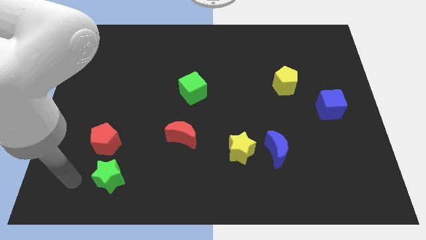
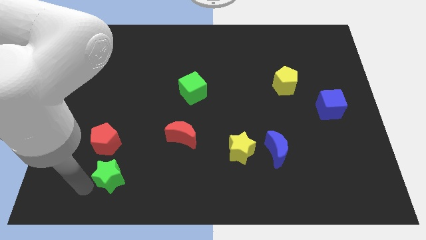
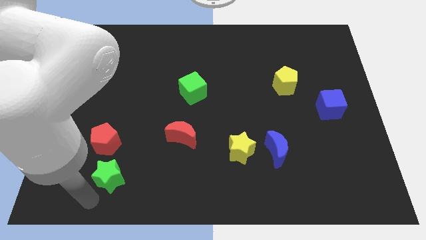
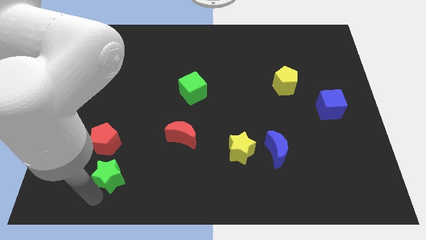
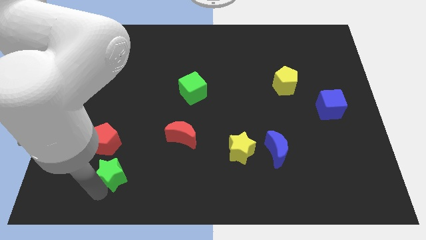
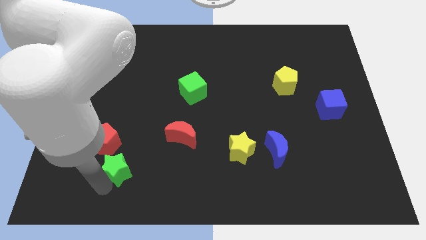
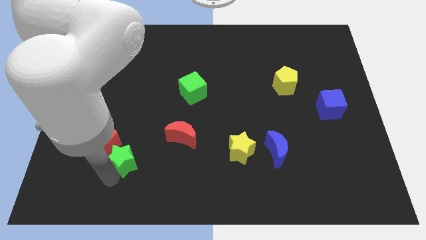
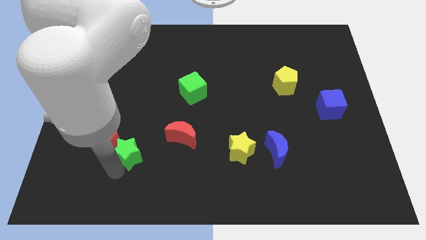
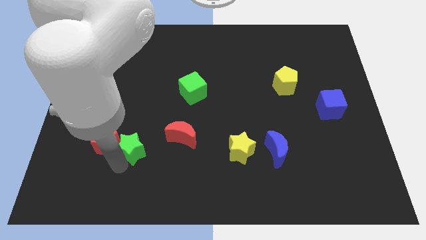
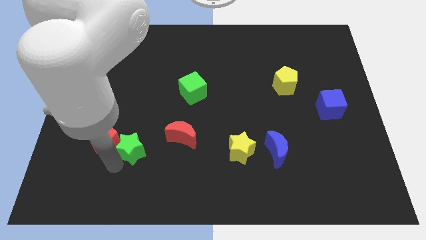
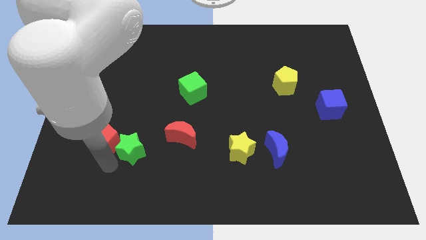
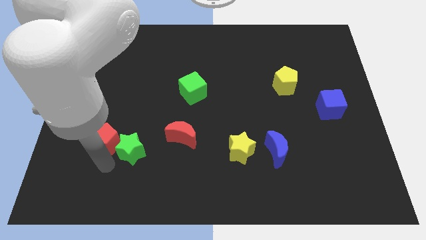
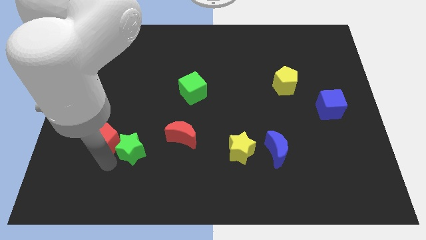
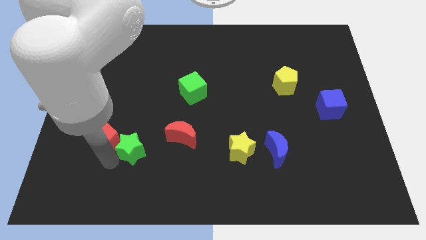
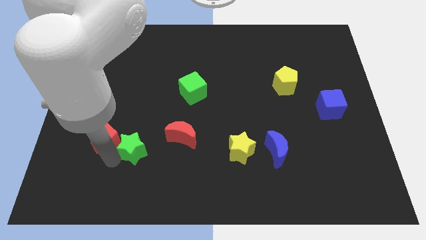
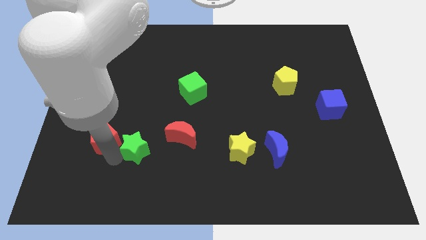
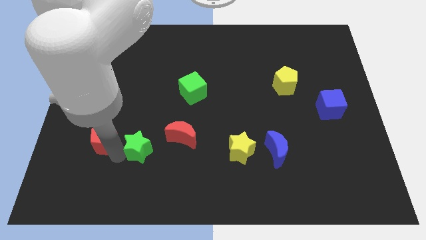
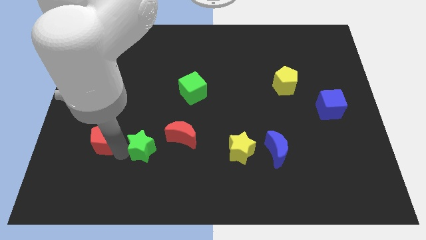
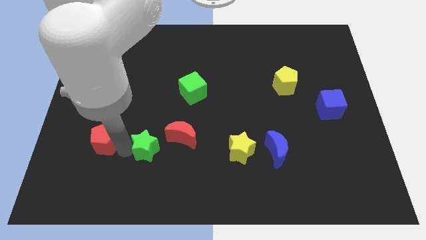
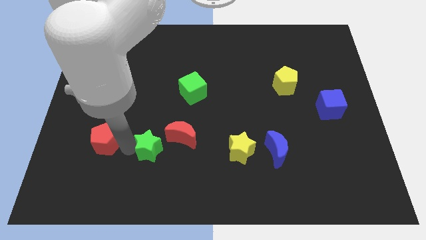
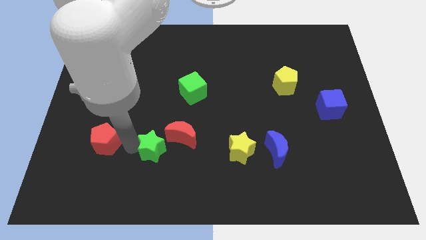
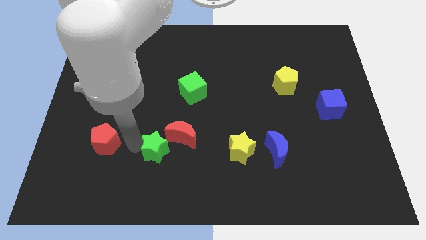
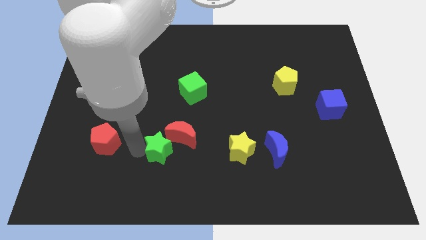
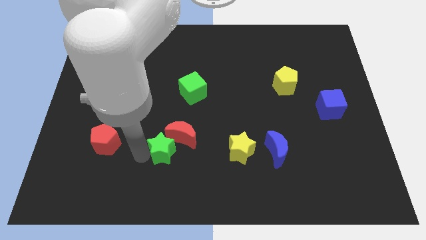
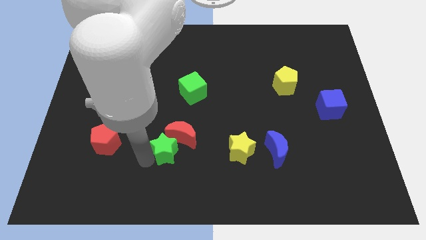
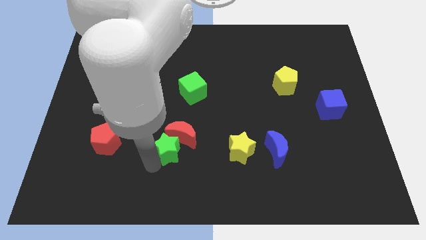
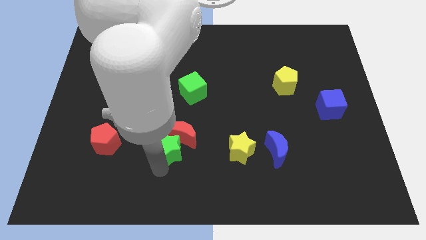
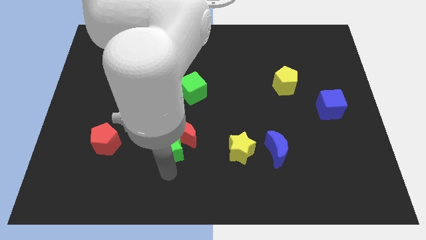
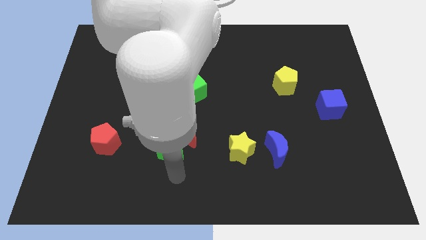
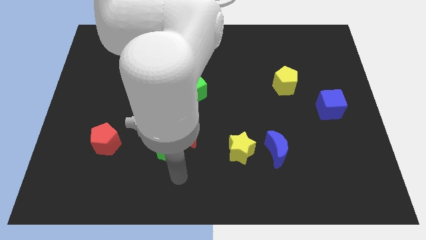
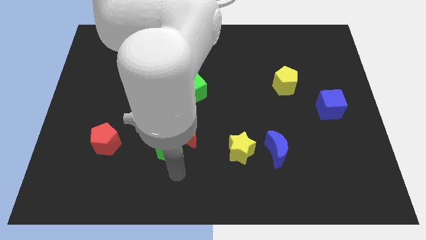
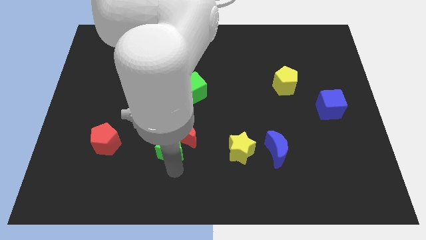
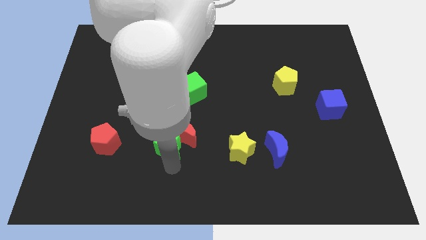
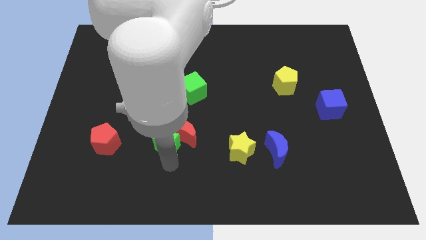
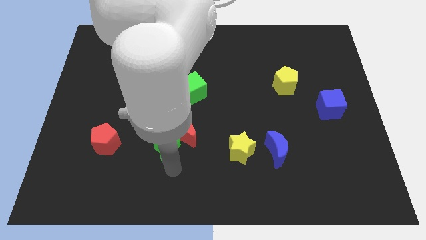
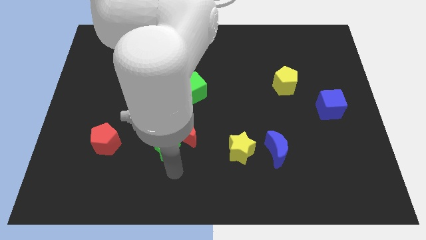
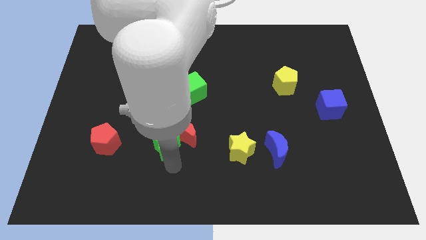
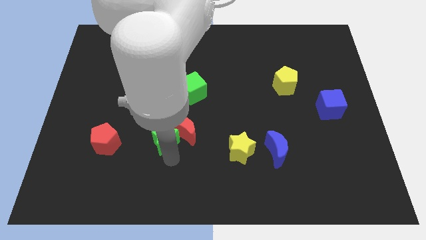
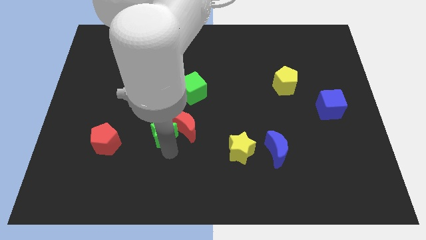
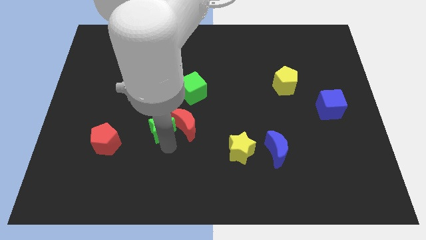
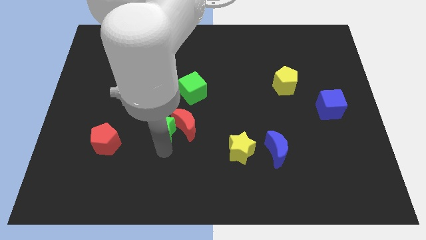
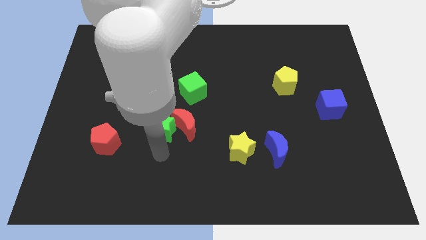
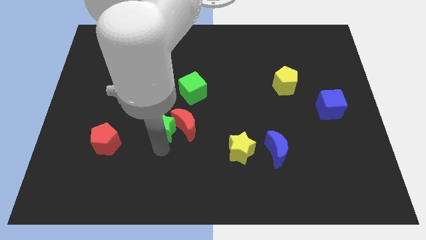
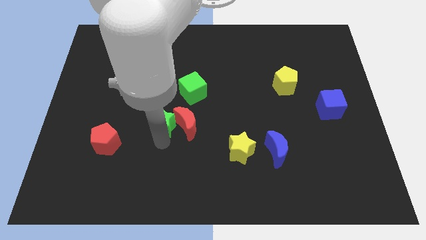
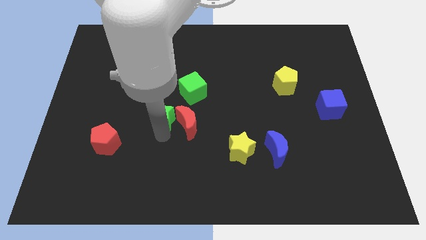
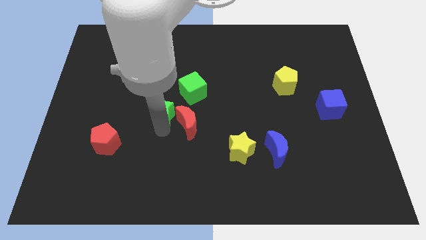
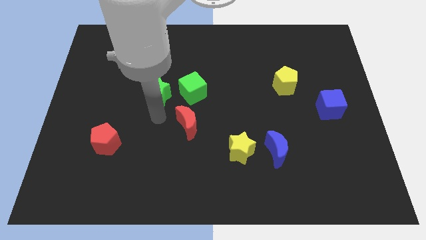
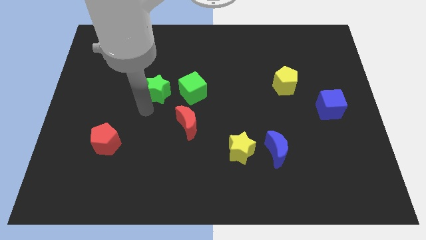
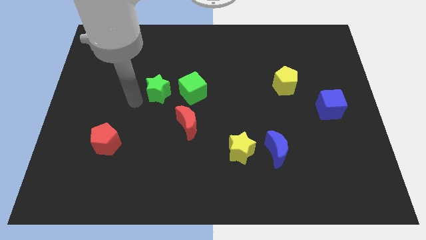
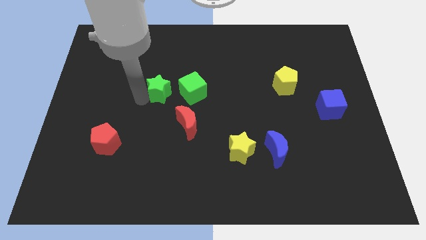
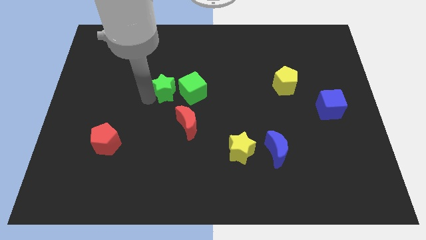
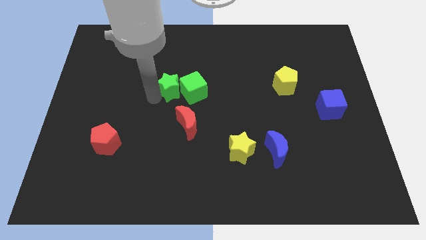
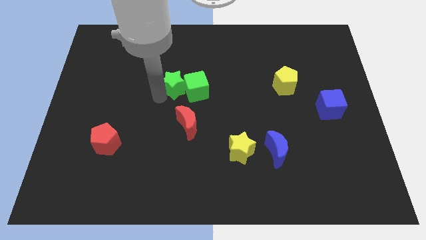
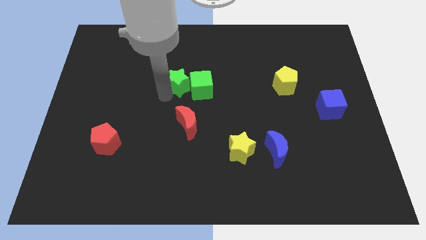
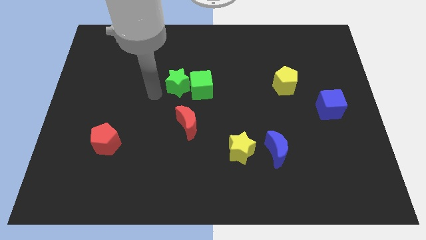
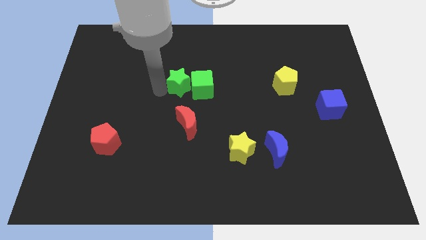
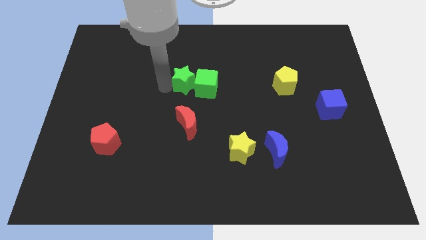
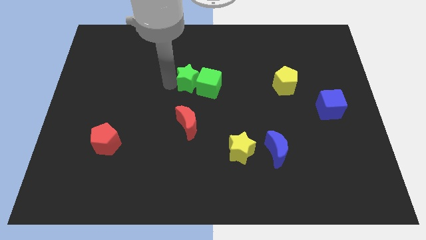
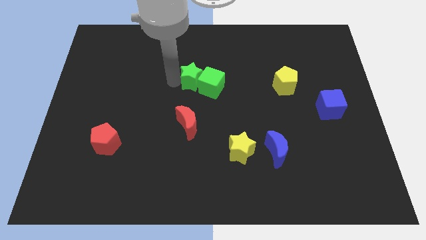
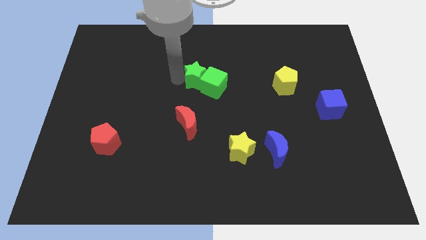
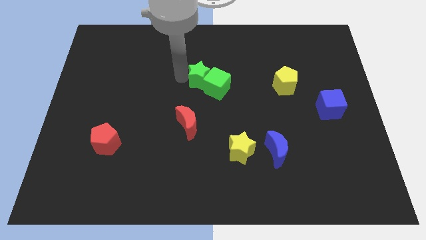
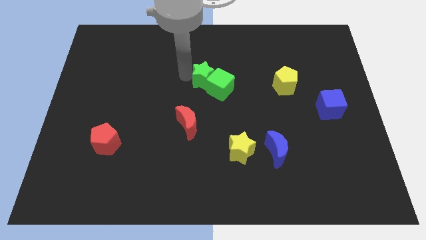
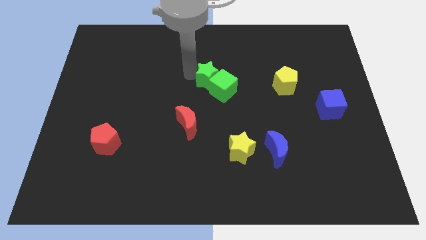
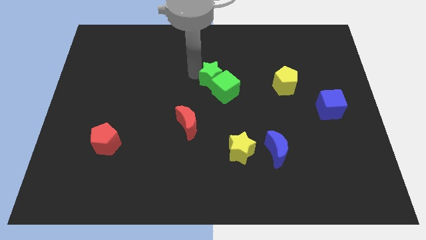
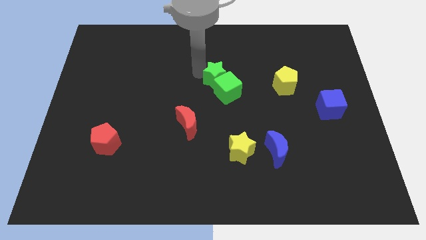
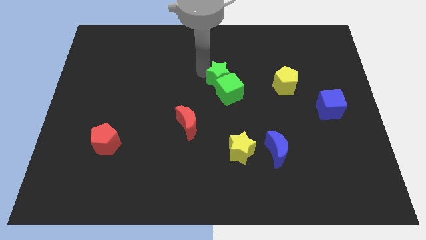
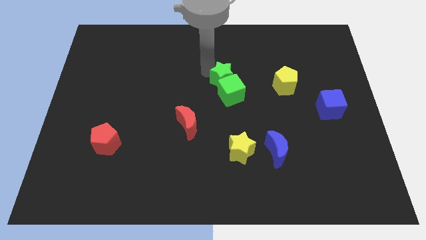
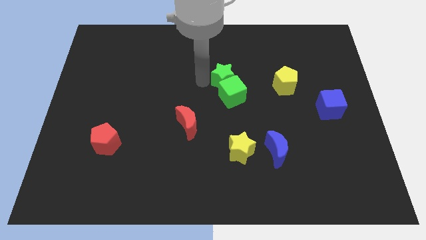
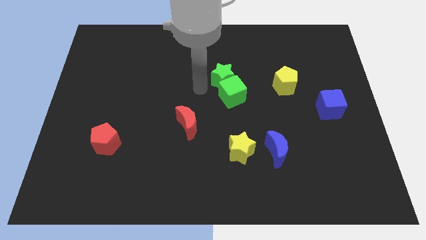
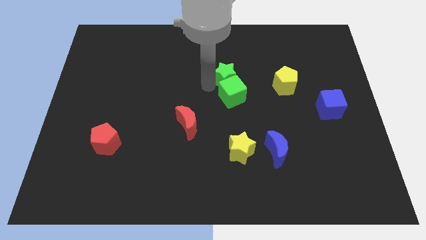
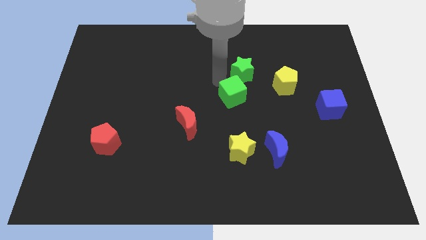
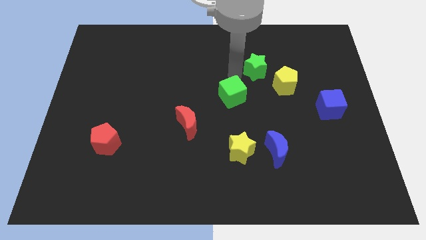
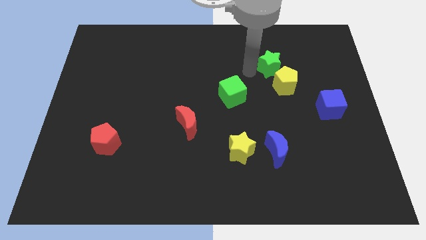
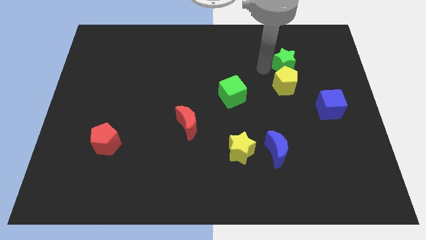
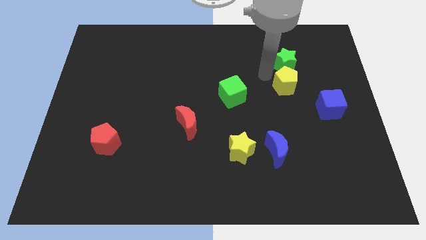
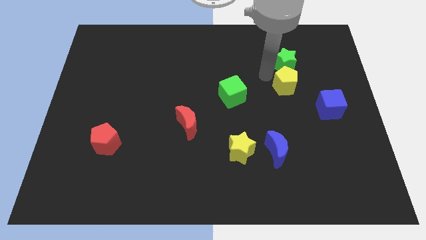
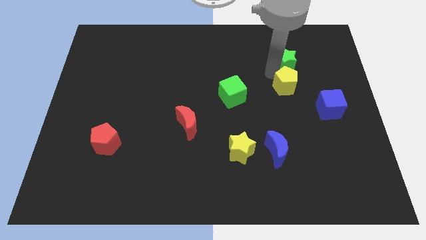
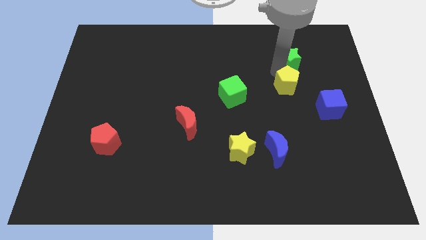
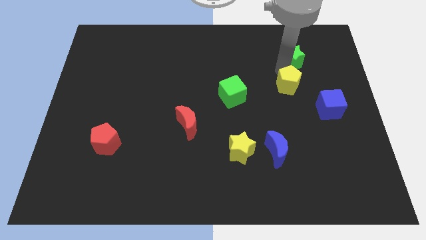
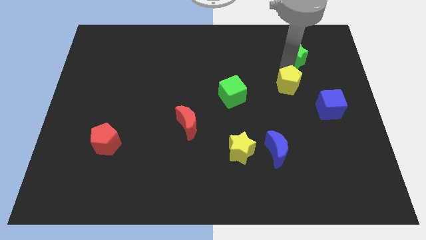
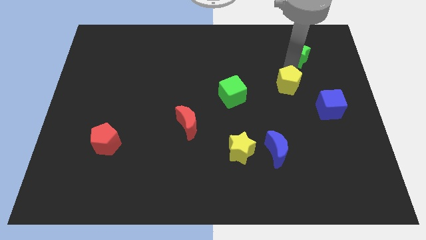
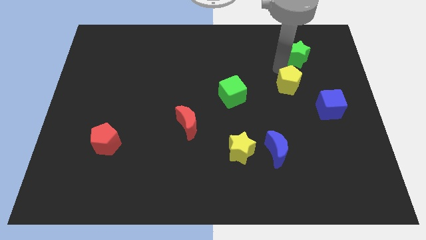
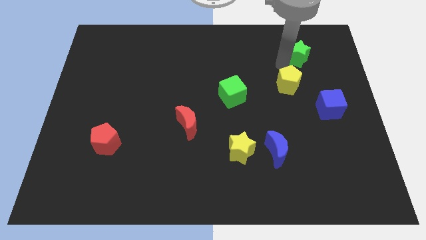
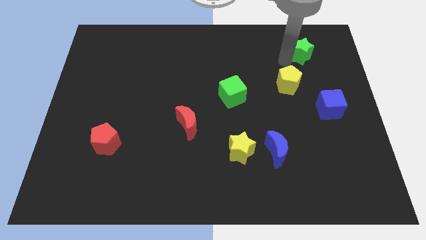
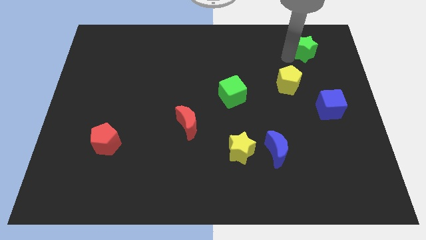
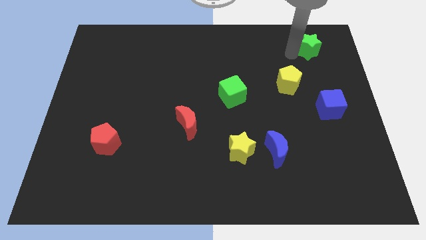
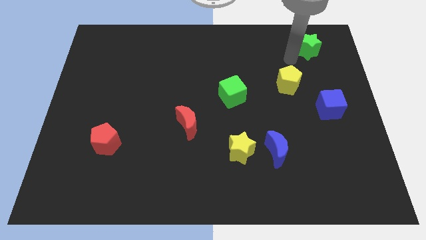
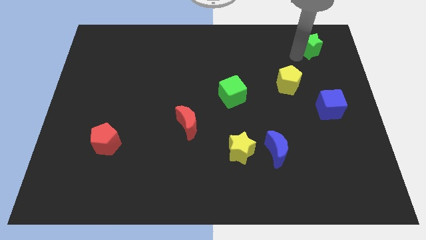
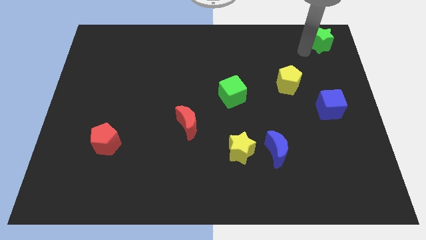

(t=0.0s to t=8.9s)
slide the green star to the top right
